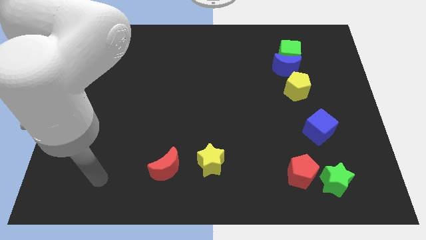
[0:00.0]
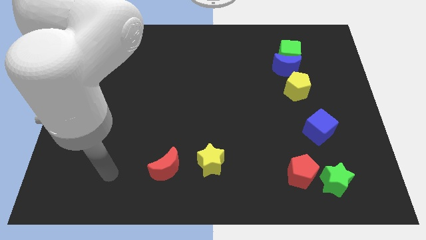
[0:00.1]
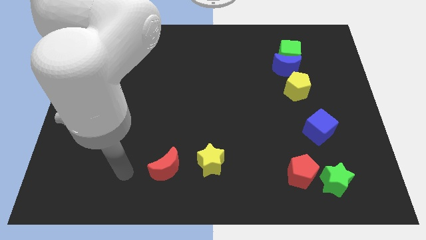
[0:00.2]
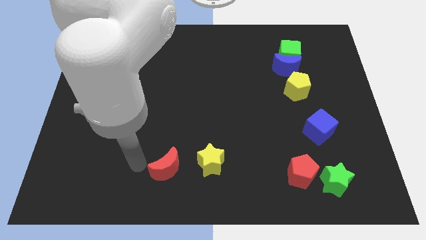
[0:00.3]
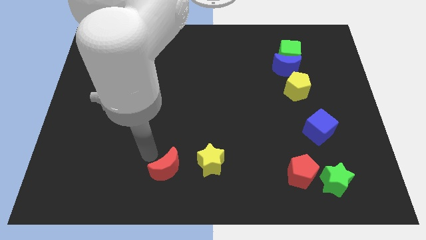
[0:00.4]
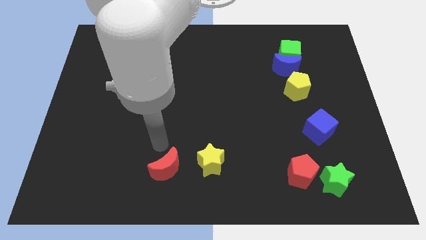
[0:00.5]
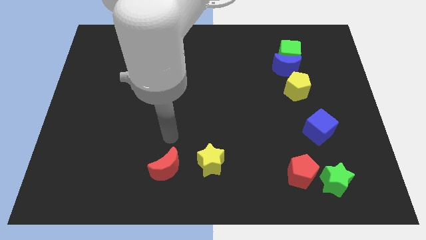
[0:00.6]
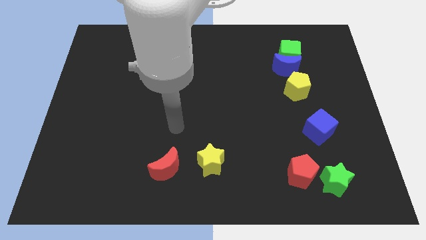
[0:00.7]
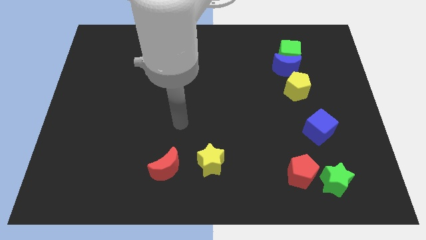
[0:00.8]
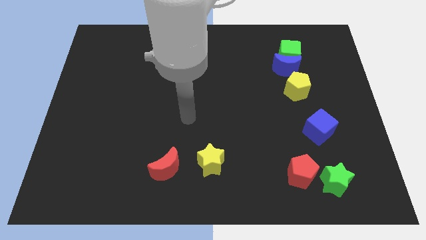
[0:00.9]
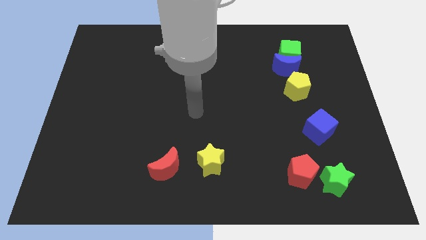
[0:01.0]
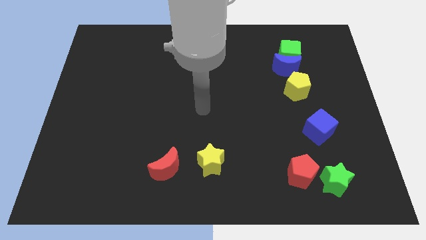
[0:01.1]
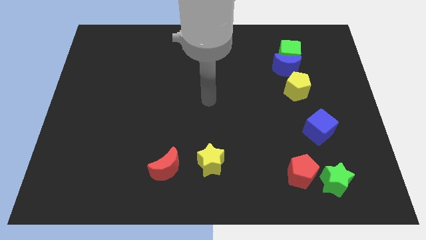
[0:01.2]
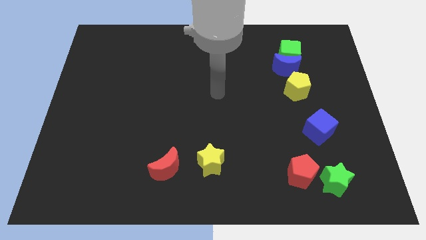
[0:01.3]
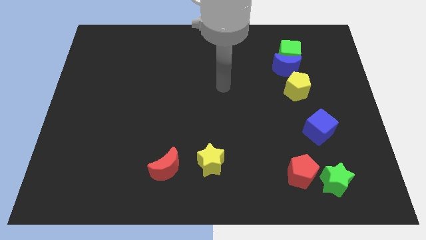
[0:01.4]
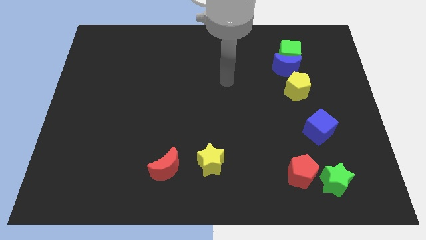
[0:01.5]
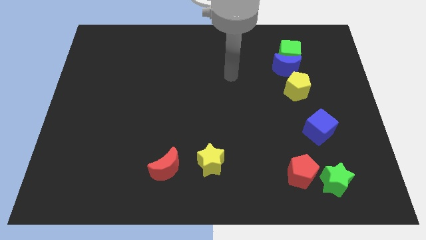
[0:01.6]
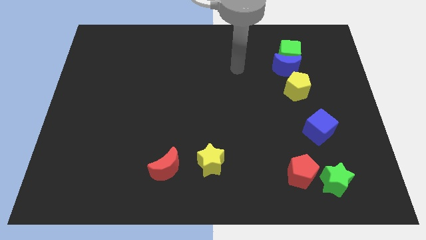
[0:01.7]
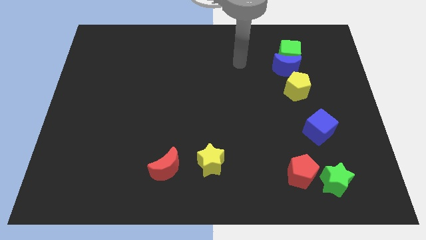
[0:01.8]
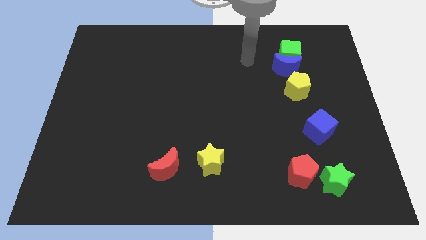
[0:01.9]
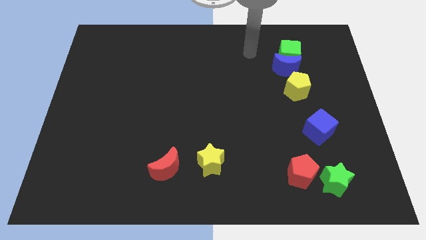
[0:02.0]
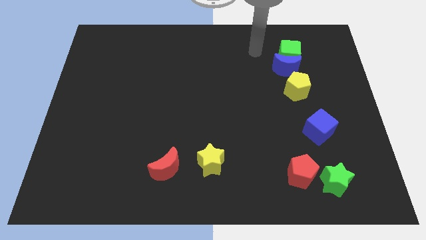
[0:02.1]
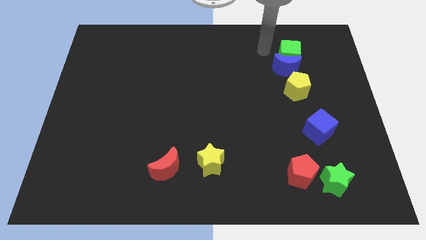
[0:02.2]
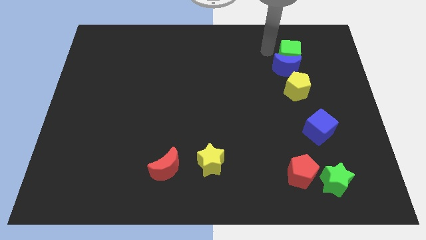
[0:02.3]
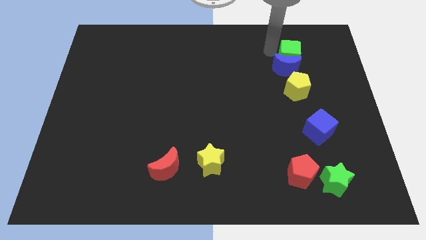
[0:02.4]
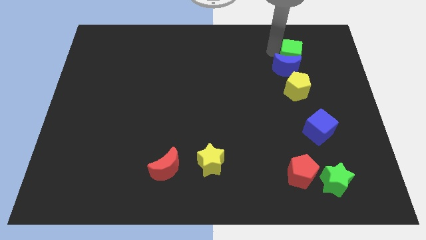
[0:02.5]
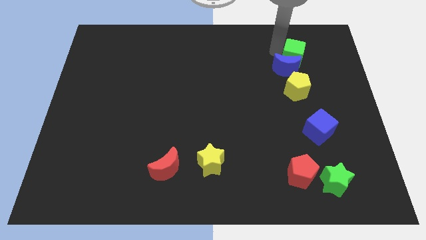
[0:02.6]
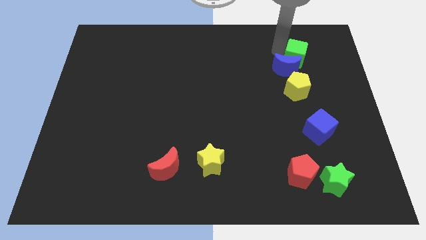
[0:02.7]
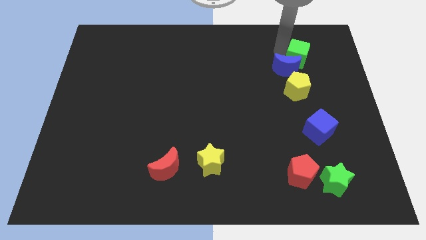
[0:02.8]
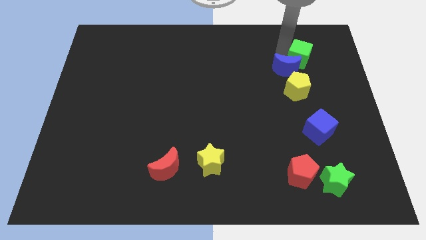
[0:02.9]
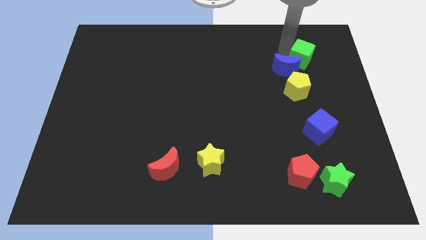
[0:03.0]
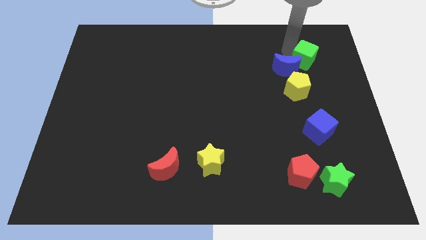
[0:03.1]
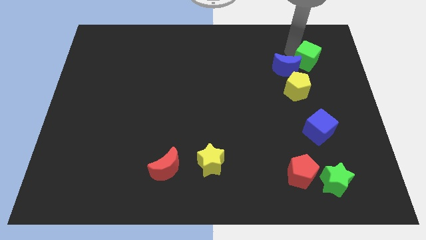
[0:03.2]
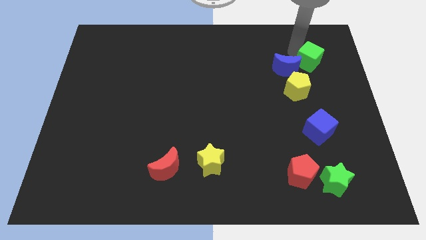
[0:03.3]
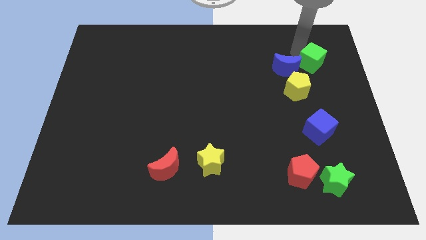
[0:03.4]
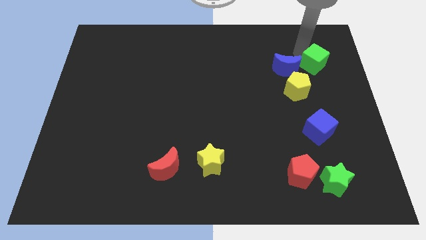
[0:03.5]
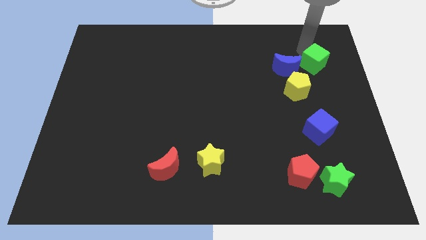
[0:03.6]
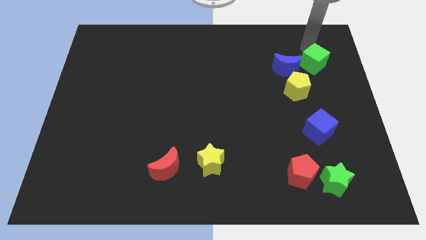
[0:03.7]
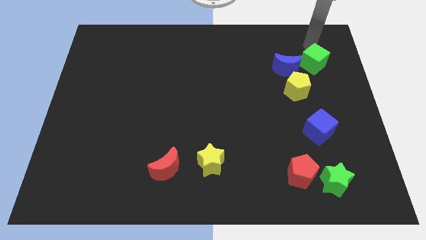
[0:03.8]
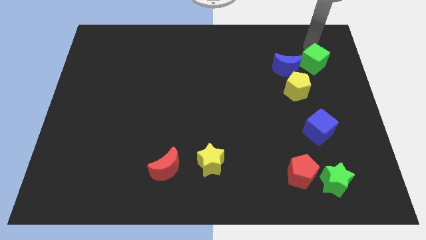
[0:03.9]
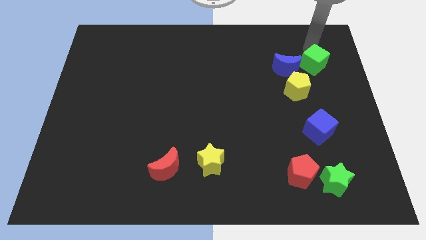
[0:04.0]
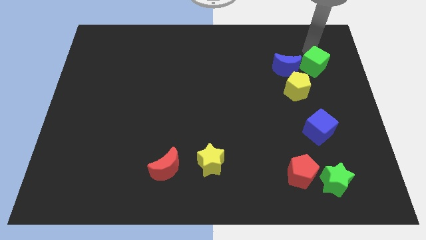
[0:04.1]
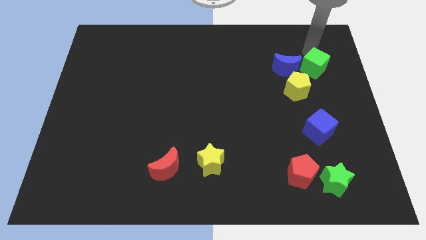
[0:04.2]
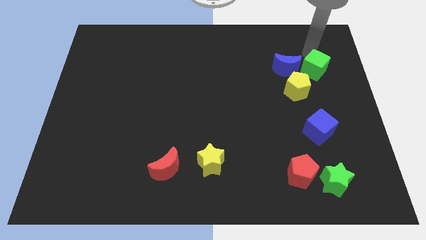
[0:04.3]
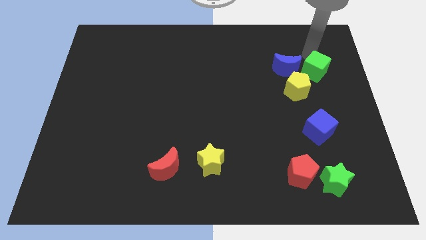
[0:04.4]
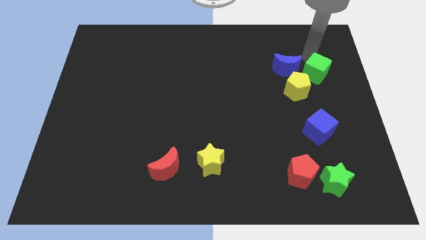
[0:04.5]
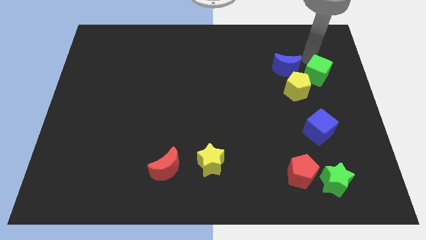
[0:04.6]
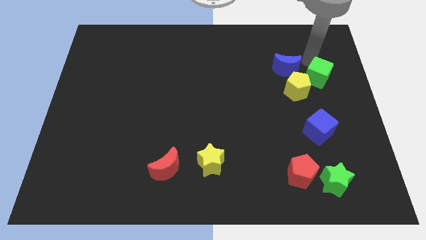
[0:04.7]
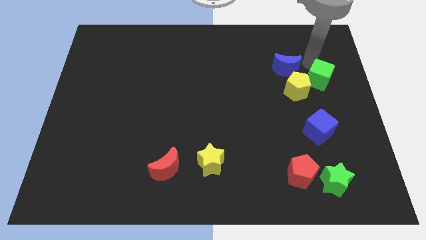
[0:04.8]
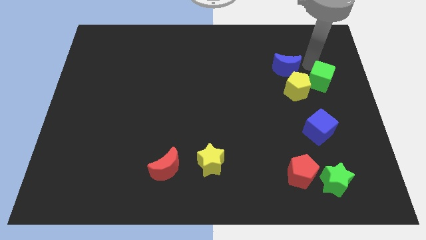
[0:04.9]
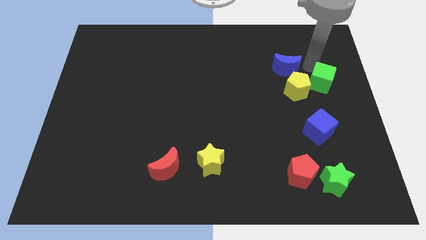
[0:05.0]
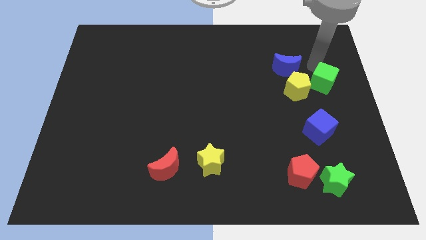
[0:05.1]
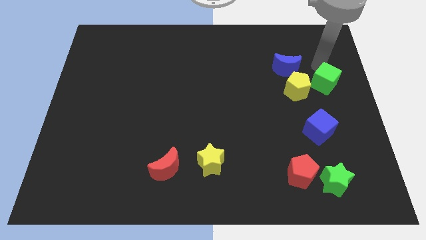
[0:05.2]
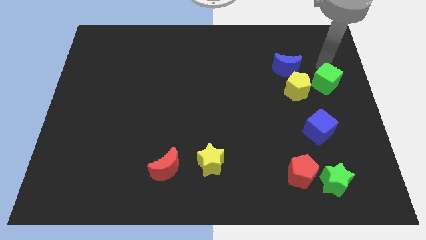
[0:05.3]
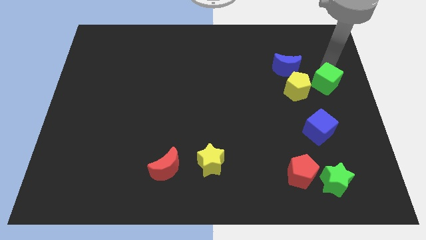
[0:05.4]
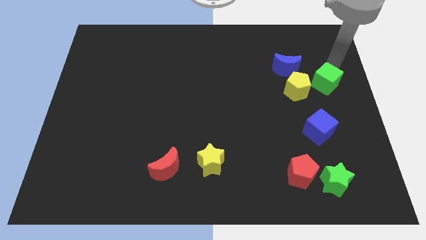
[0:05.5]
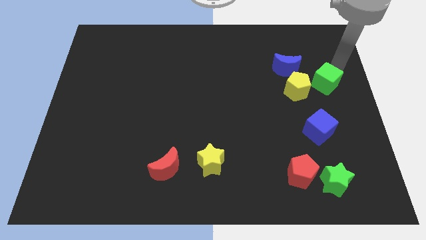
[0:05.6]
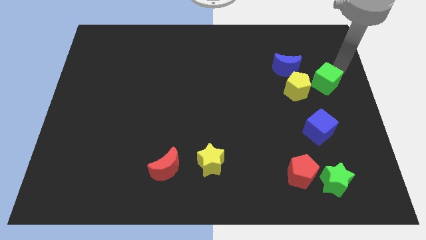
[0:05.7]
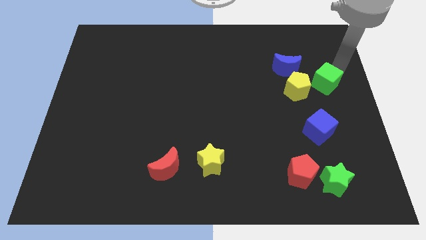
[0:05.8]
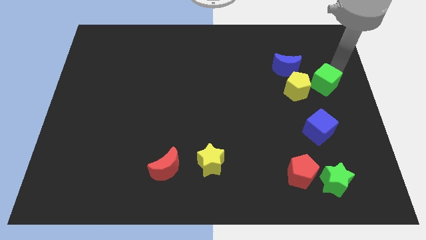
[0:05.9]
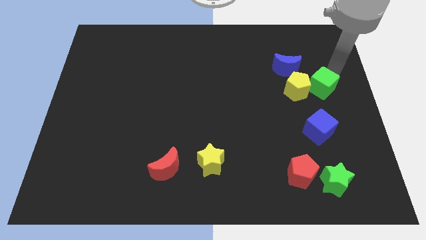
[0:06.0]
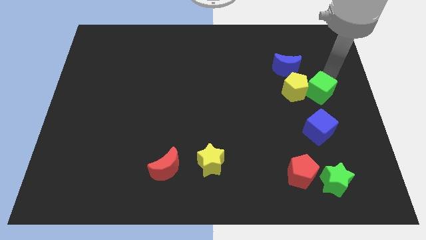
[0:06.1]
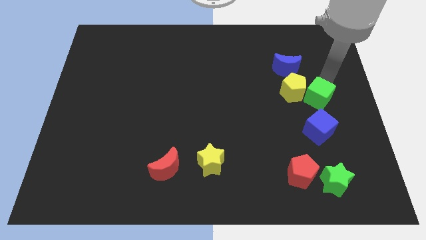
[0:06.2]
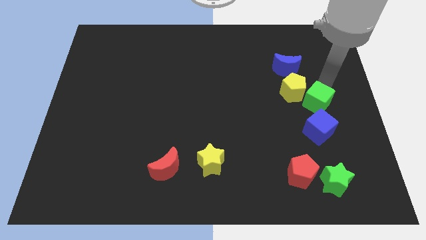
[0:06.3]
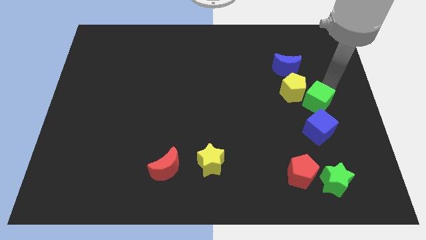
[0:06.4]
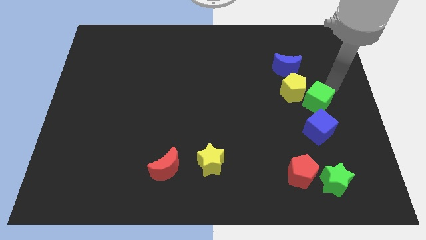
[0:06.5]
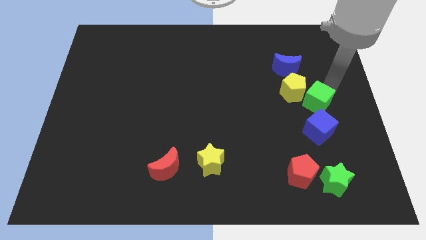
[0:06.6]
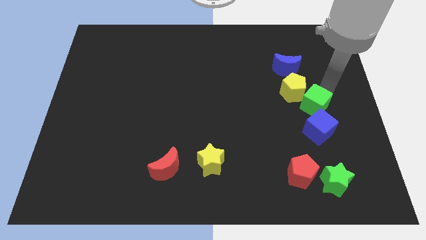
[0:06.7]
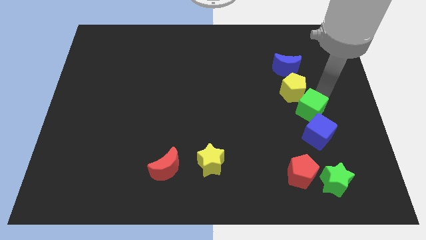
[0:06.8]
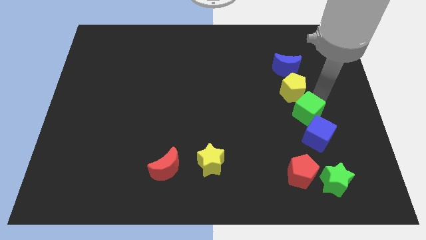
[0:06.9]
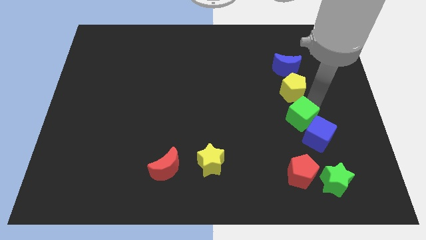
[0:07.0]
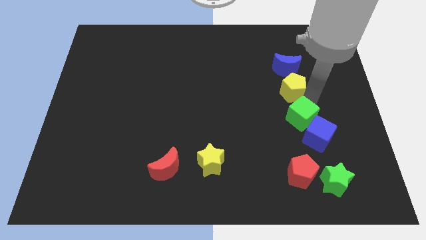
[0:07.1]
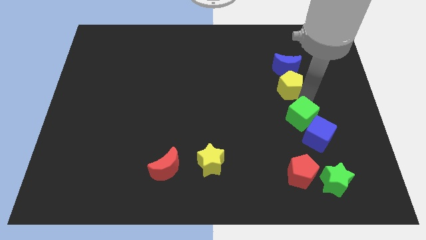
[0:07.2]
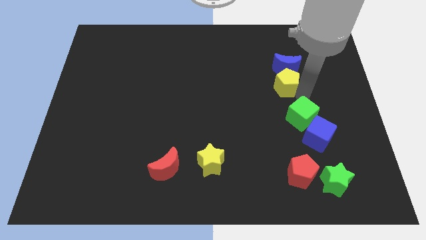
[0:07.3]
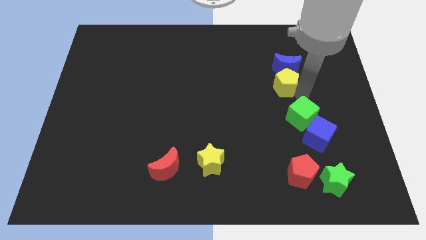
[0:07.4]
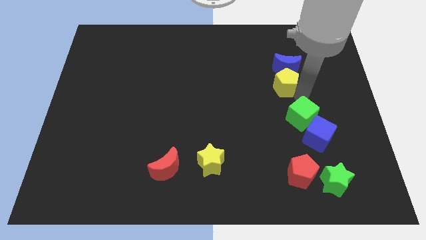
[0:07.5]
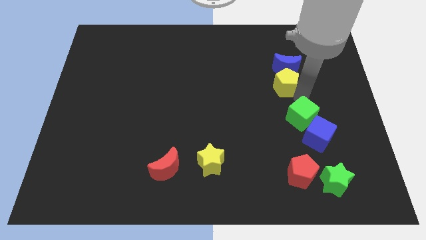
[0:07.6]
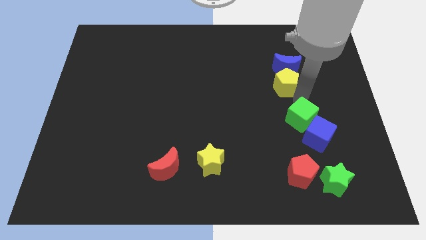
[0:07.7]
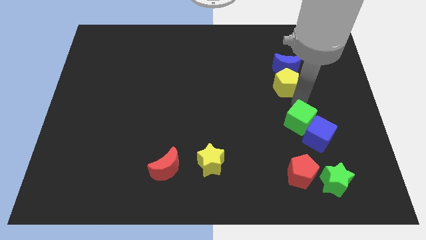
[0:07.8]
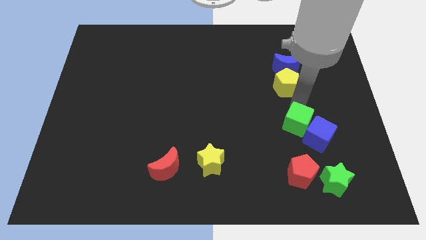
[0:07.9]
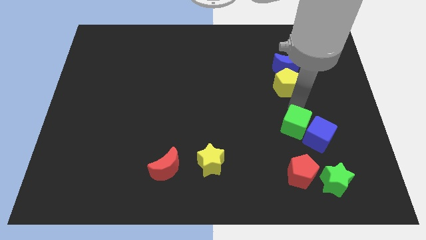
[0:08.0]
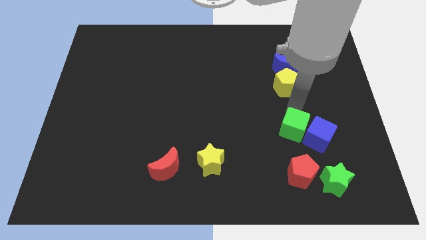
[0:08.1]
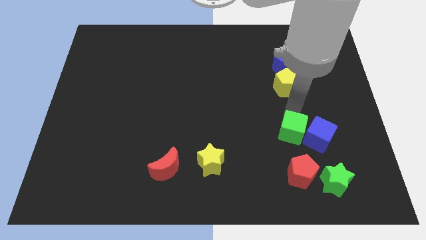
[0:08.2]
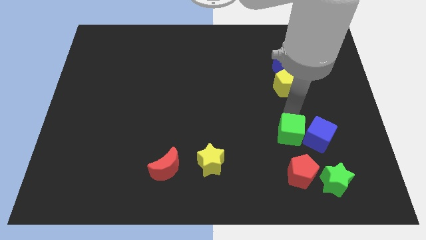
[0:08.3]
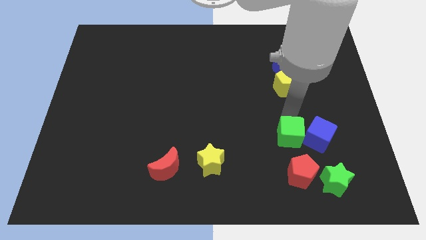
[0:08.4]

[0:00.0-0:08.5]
put the green cube diagonally down and to the left of the blue cube
